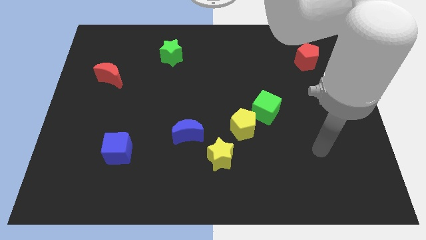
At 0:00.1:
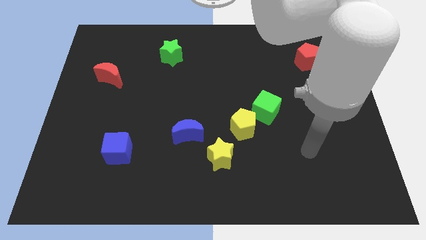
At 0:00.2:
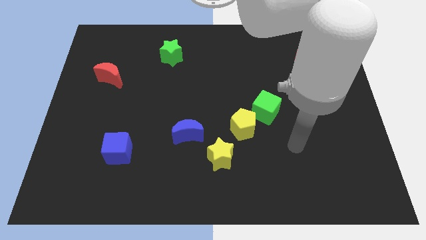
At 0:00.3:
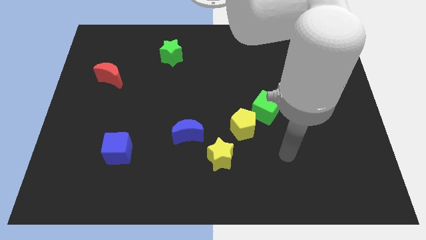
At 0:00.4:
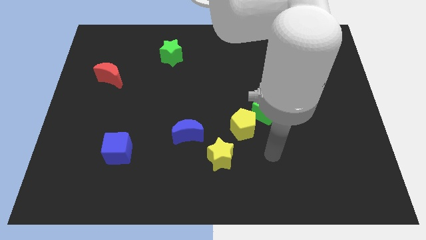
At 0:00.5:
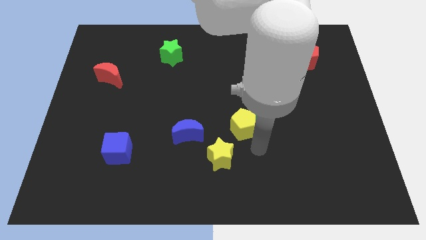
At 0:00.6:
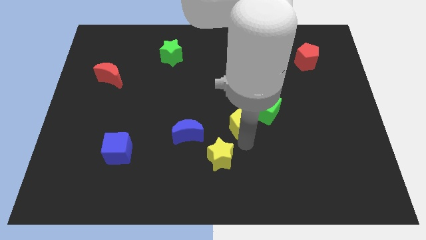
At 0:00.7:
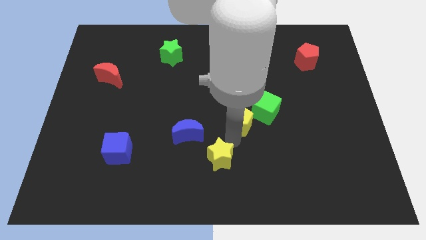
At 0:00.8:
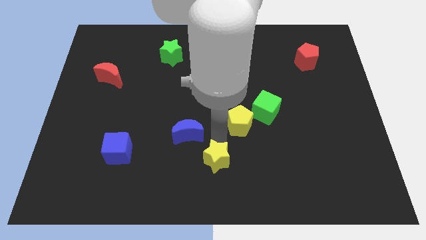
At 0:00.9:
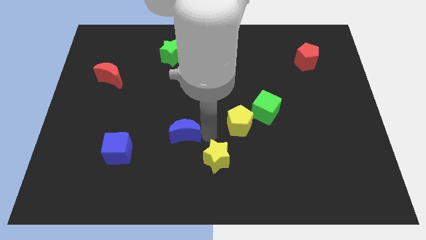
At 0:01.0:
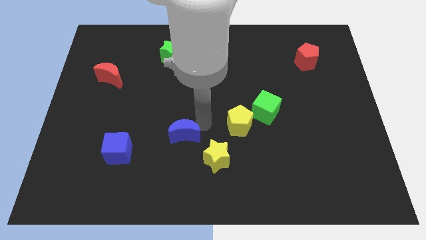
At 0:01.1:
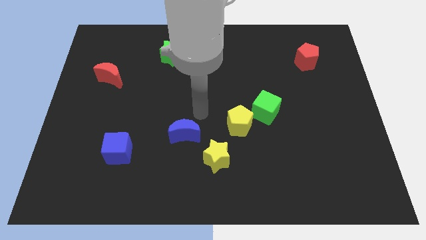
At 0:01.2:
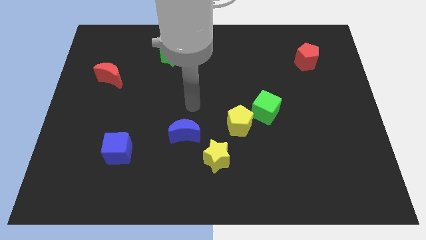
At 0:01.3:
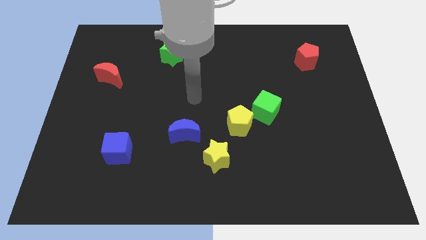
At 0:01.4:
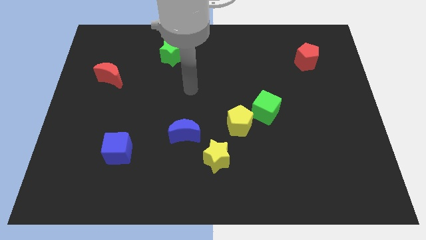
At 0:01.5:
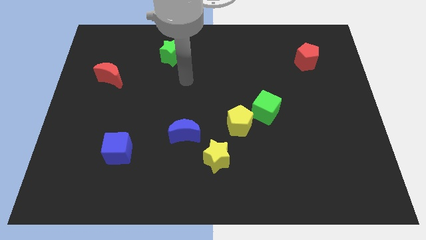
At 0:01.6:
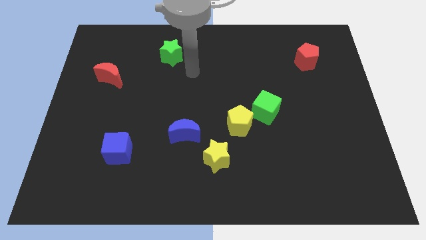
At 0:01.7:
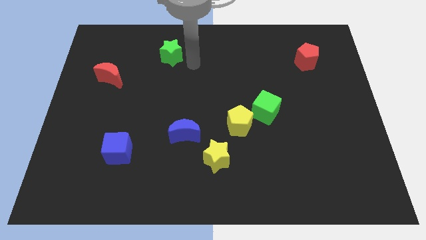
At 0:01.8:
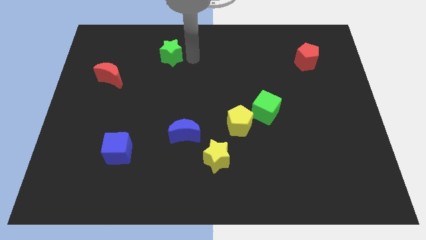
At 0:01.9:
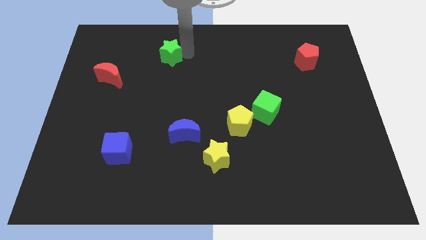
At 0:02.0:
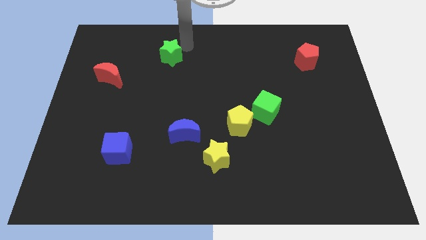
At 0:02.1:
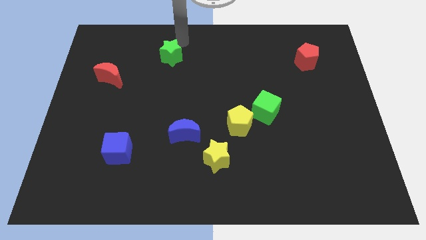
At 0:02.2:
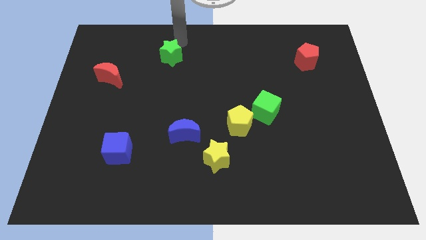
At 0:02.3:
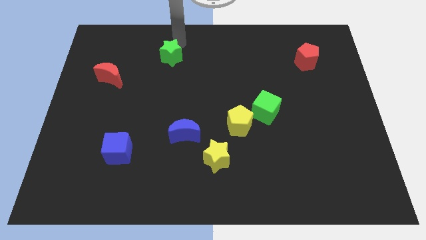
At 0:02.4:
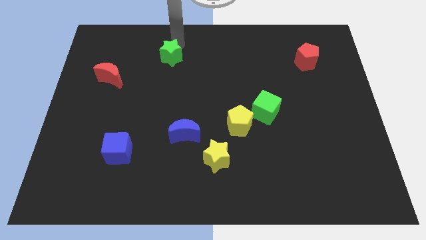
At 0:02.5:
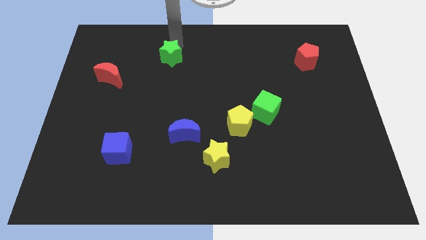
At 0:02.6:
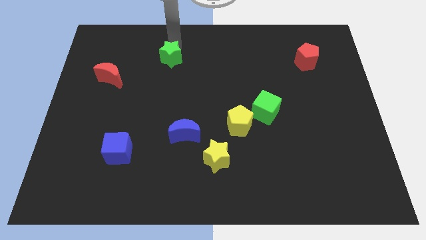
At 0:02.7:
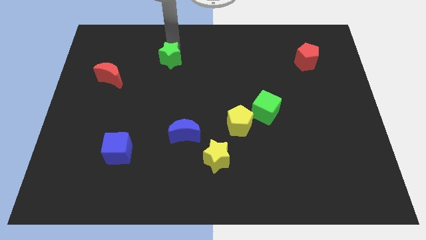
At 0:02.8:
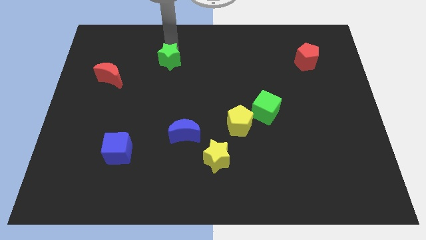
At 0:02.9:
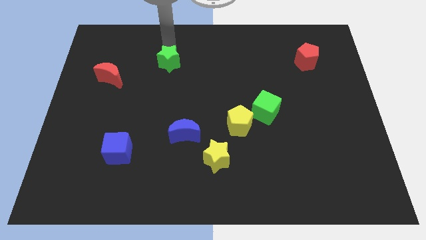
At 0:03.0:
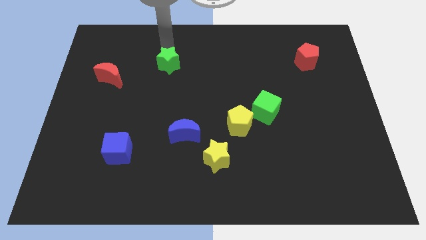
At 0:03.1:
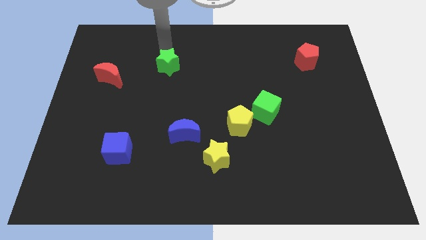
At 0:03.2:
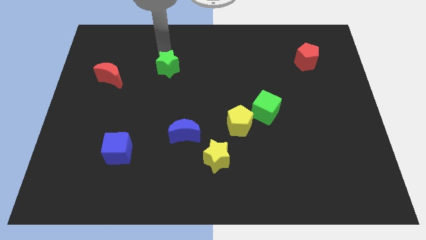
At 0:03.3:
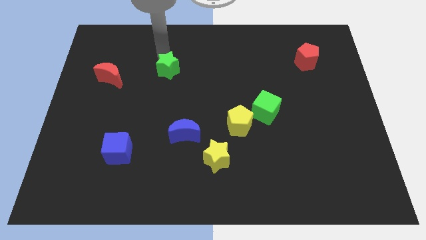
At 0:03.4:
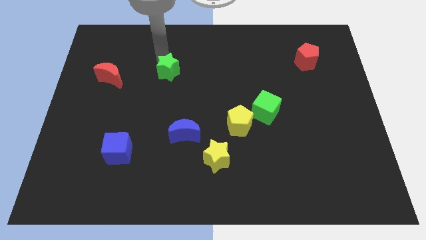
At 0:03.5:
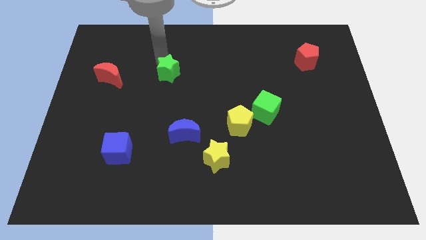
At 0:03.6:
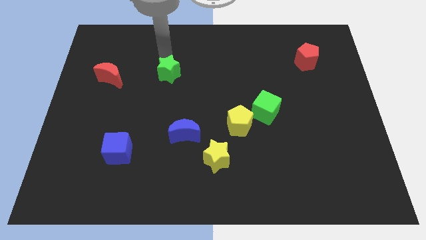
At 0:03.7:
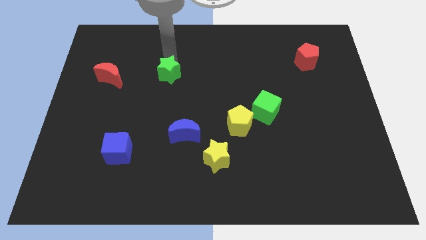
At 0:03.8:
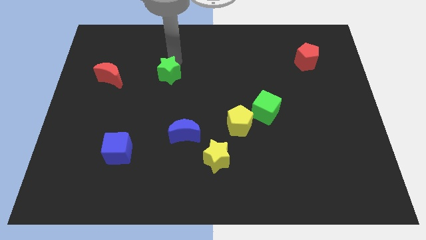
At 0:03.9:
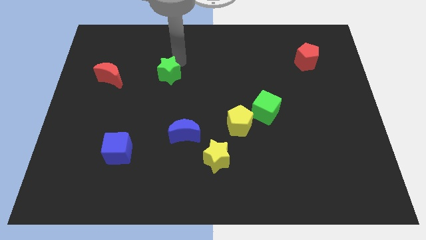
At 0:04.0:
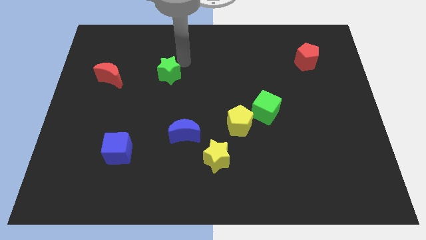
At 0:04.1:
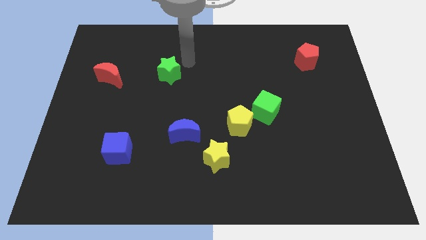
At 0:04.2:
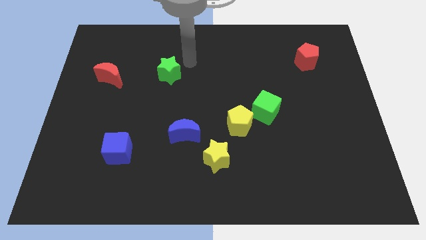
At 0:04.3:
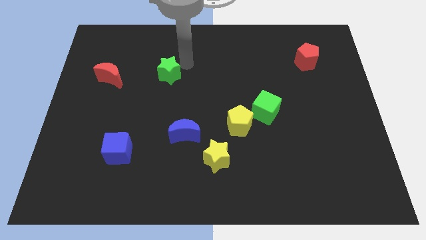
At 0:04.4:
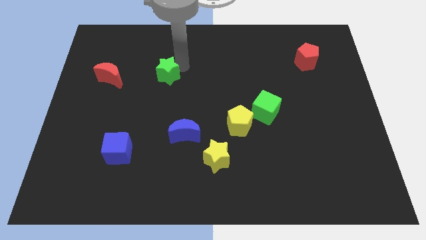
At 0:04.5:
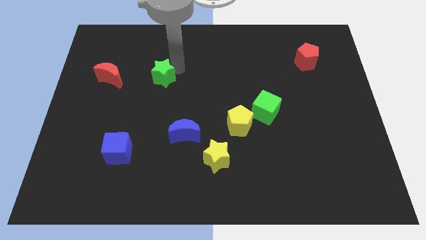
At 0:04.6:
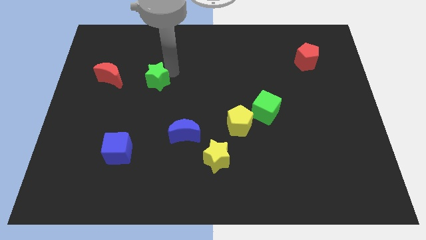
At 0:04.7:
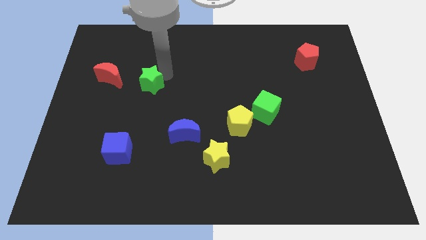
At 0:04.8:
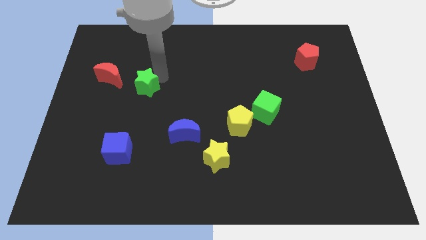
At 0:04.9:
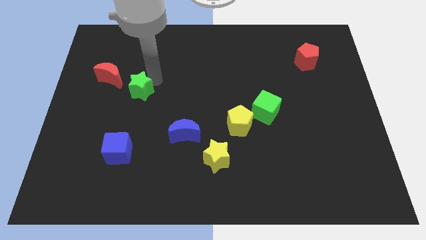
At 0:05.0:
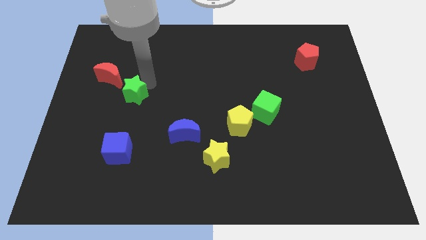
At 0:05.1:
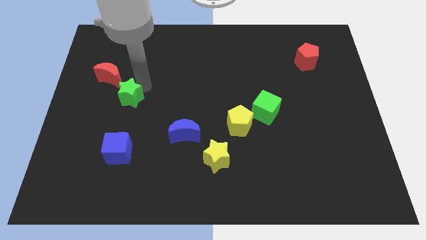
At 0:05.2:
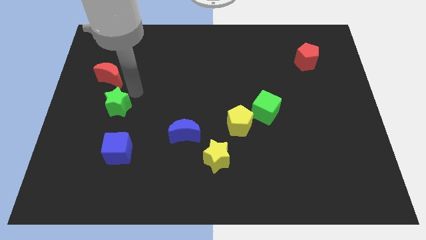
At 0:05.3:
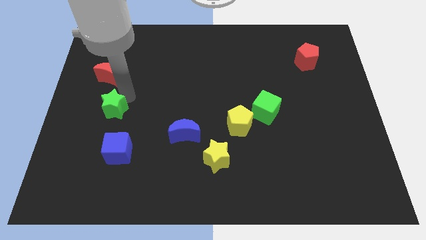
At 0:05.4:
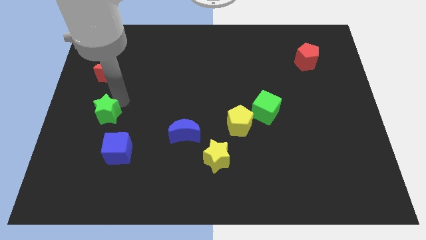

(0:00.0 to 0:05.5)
push the green star to the top left side of the blue cube
